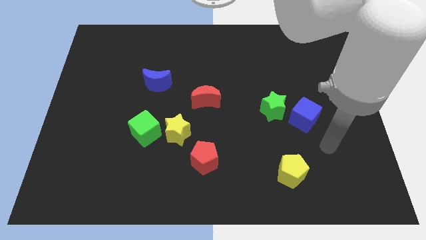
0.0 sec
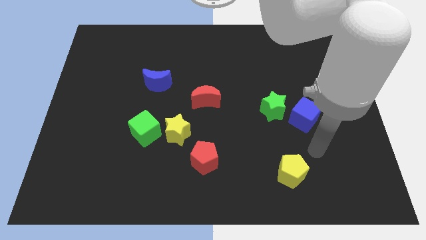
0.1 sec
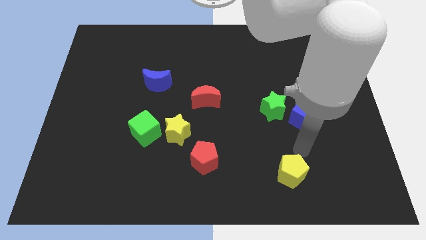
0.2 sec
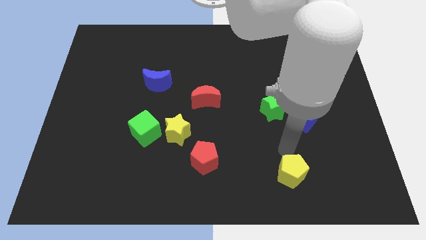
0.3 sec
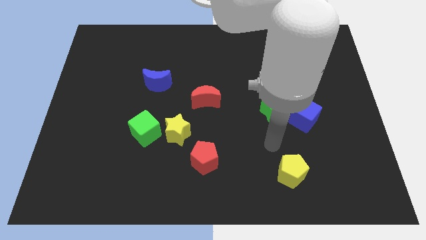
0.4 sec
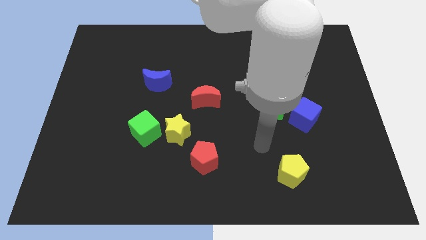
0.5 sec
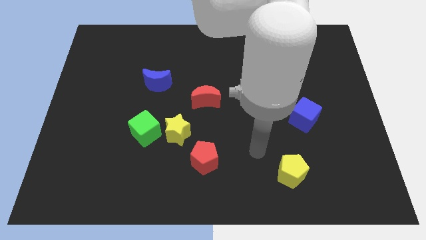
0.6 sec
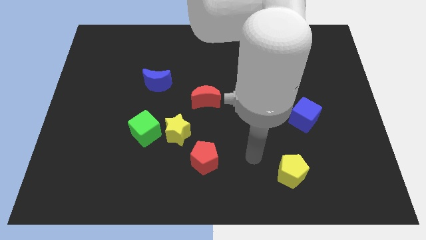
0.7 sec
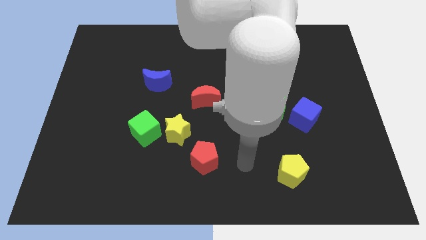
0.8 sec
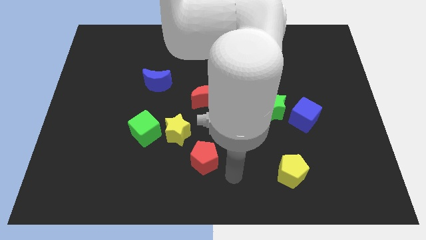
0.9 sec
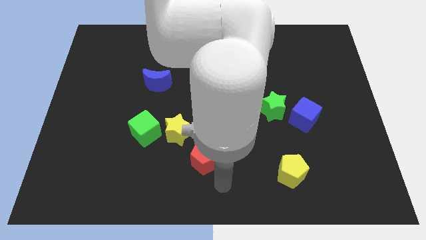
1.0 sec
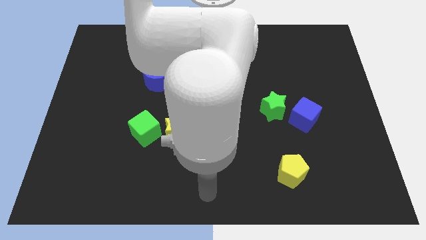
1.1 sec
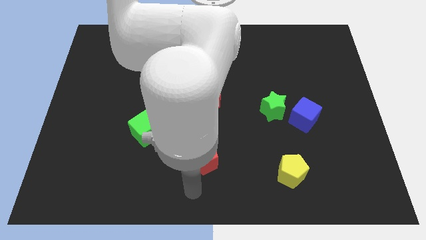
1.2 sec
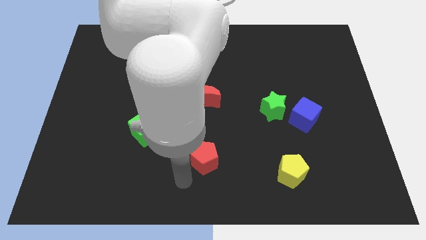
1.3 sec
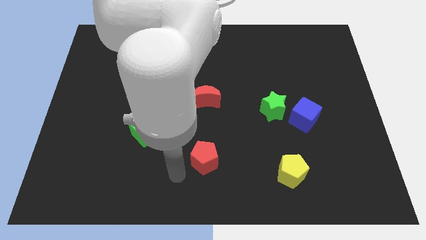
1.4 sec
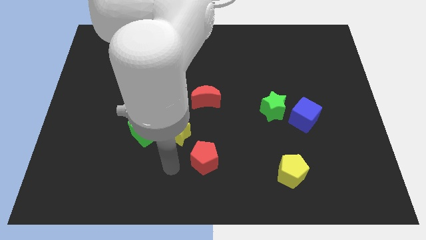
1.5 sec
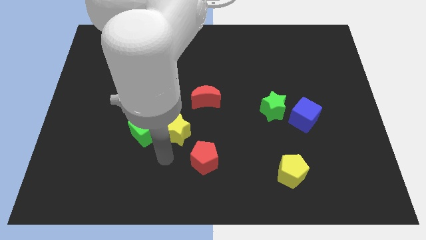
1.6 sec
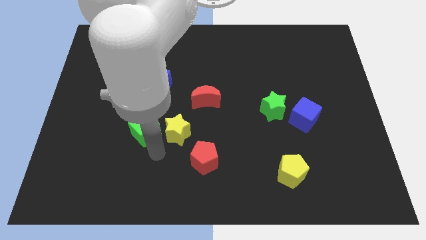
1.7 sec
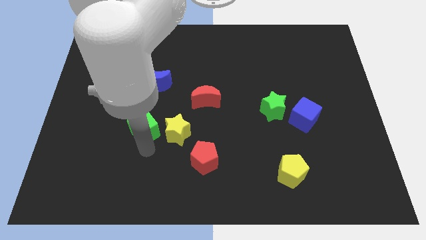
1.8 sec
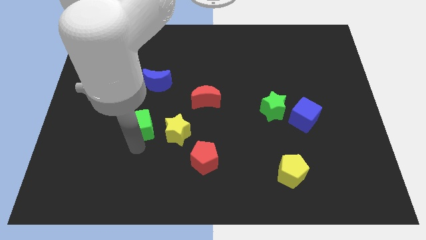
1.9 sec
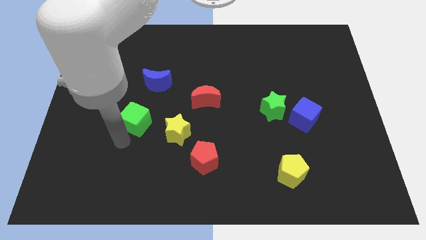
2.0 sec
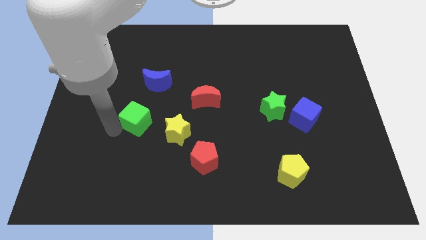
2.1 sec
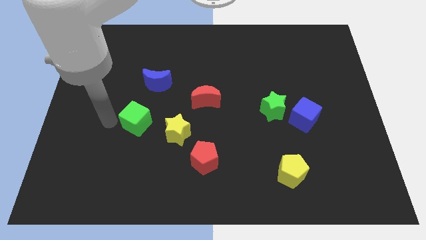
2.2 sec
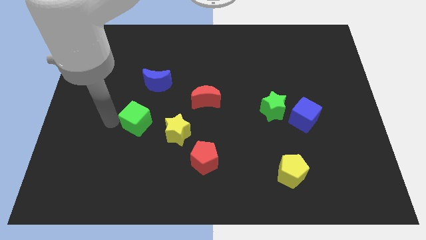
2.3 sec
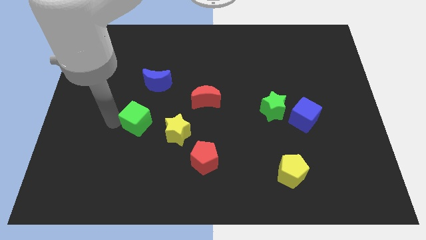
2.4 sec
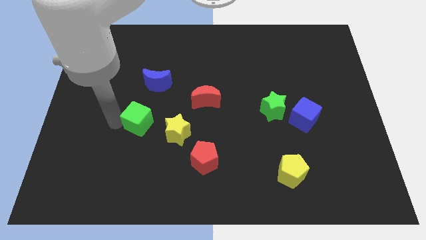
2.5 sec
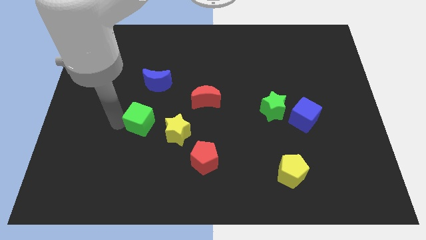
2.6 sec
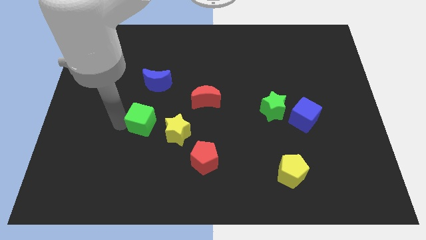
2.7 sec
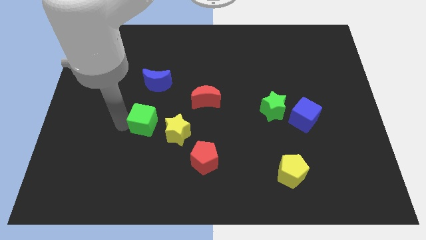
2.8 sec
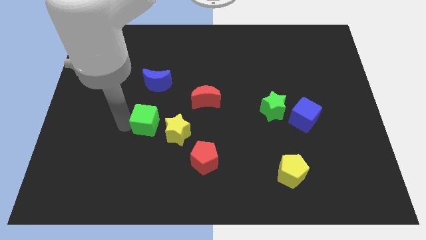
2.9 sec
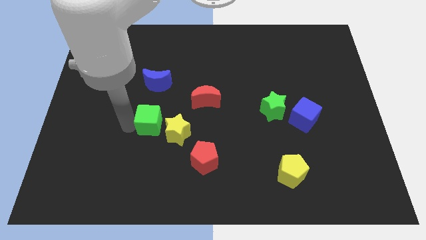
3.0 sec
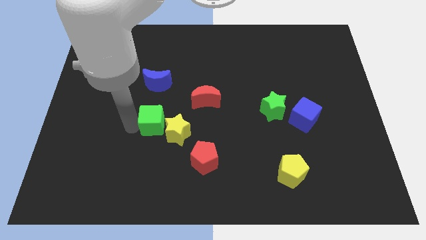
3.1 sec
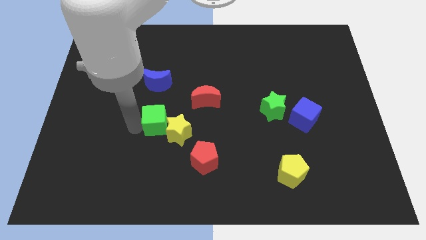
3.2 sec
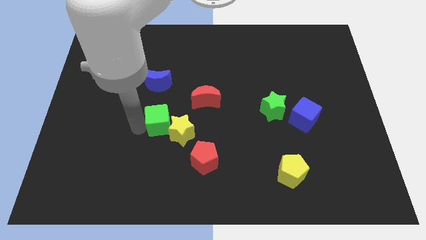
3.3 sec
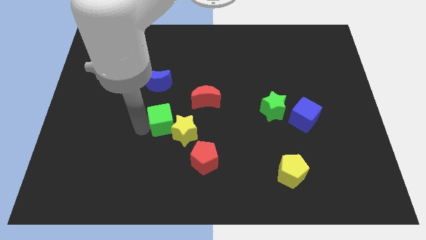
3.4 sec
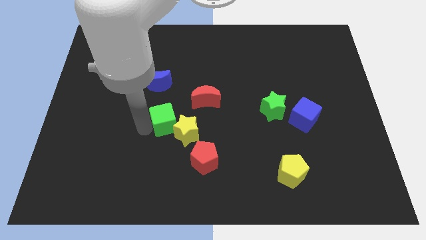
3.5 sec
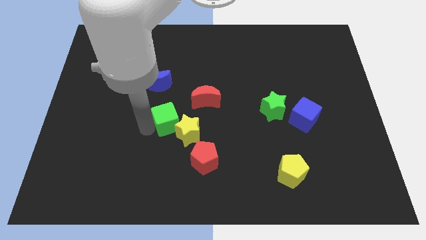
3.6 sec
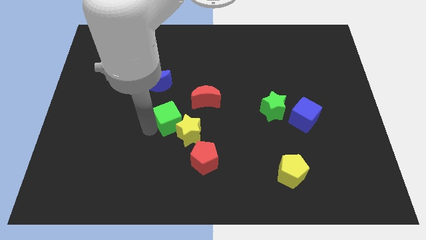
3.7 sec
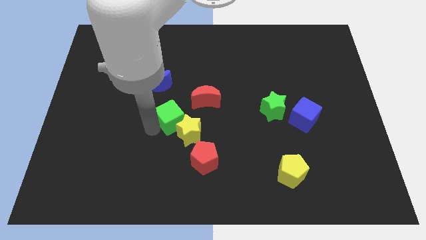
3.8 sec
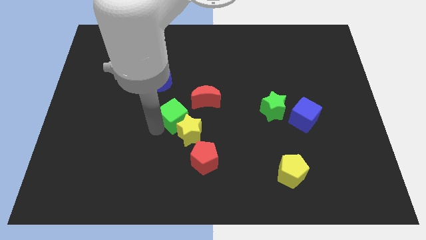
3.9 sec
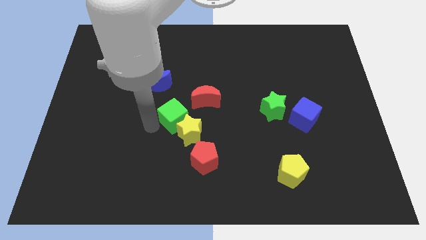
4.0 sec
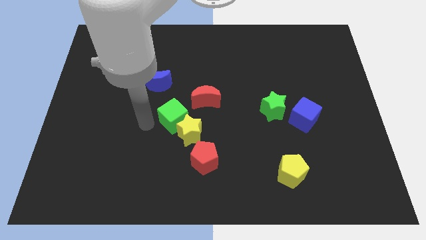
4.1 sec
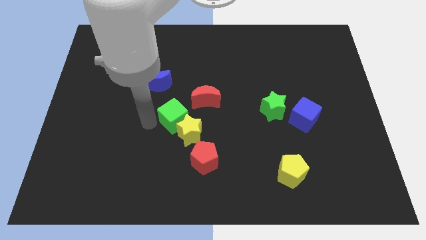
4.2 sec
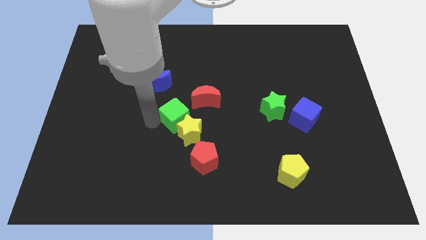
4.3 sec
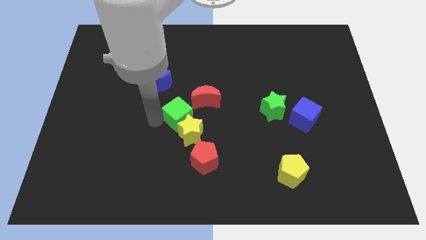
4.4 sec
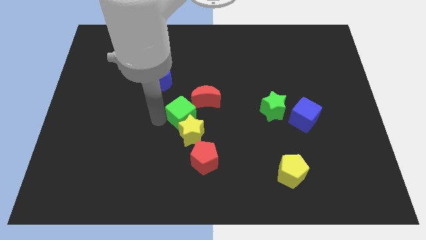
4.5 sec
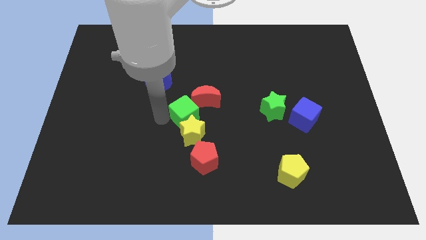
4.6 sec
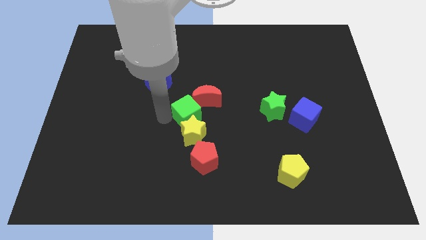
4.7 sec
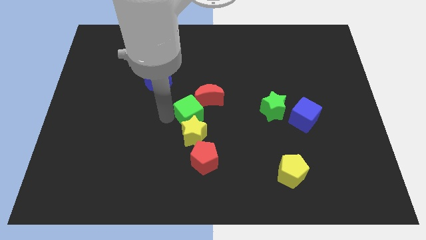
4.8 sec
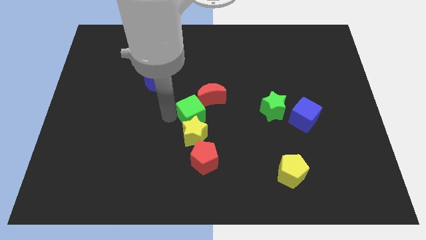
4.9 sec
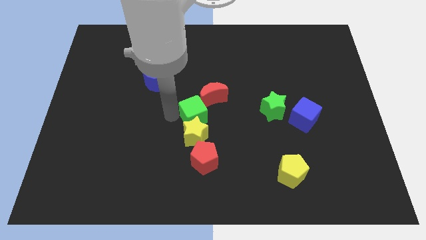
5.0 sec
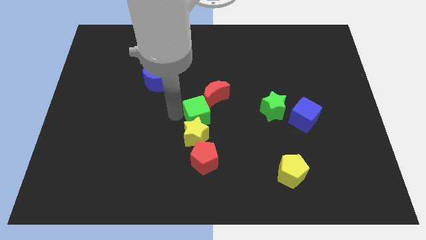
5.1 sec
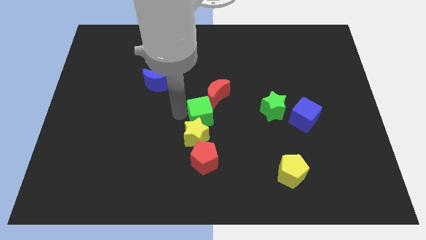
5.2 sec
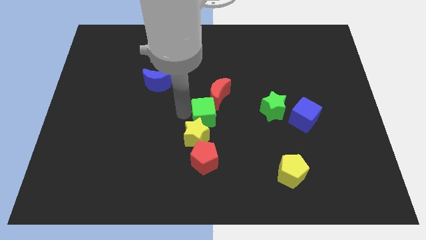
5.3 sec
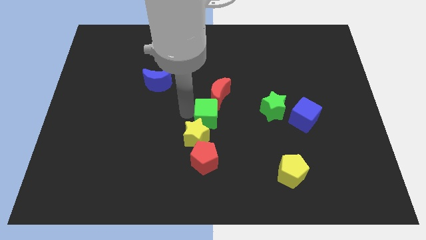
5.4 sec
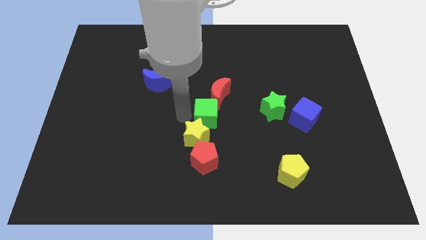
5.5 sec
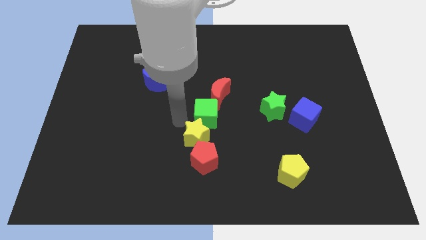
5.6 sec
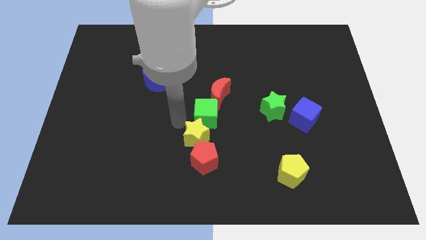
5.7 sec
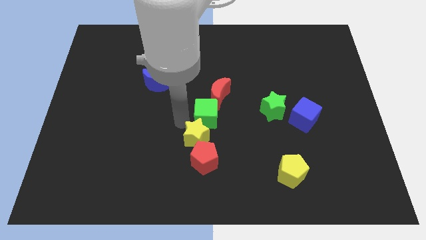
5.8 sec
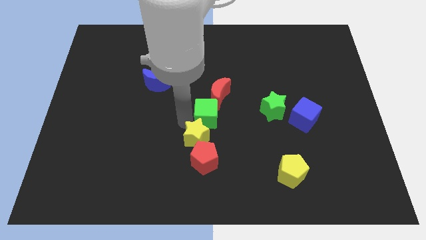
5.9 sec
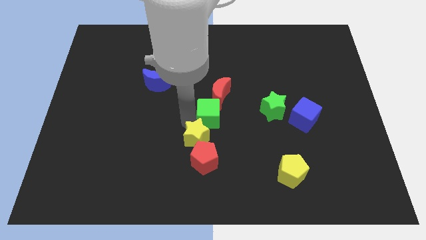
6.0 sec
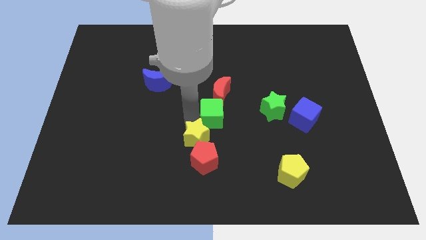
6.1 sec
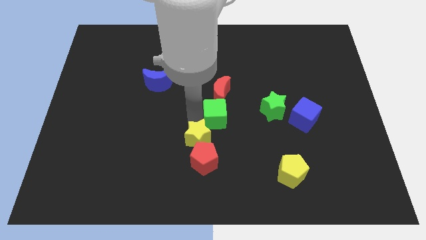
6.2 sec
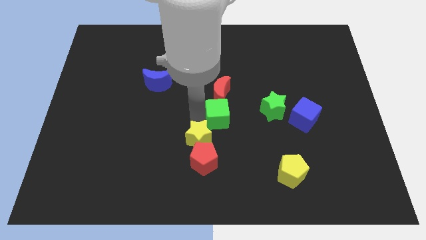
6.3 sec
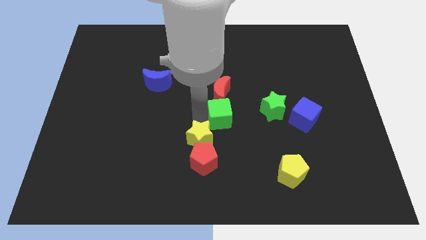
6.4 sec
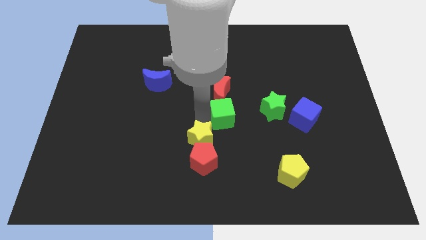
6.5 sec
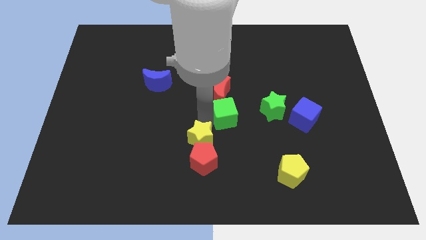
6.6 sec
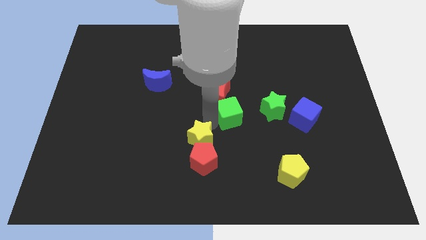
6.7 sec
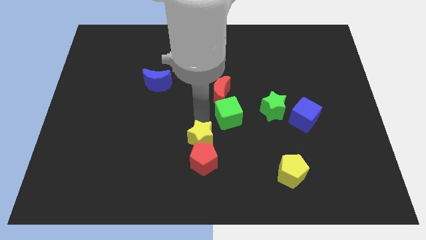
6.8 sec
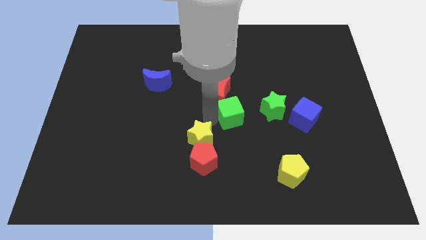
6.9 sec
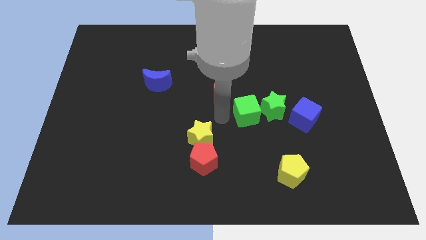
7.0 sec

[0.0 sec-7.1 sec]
slide the green cube towards the green star
